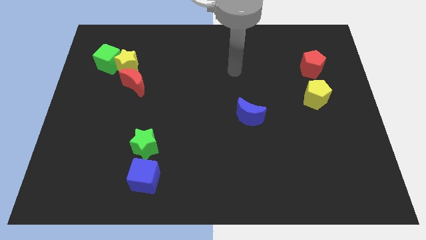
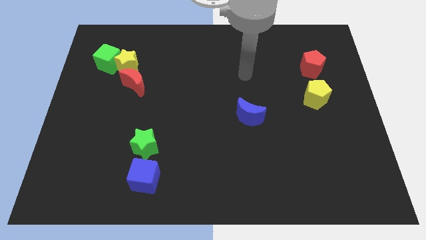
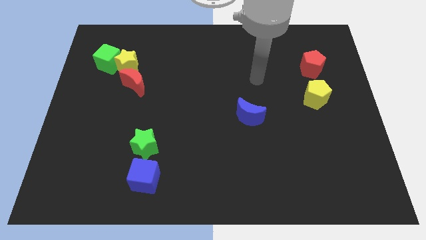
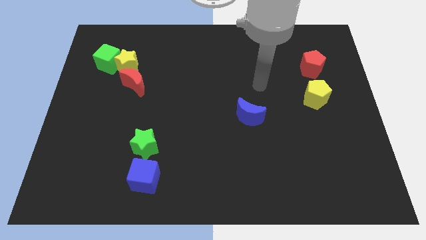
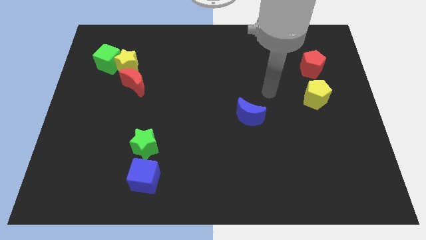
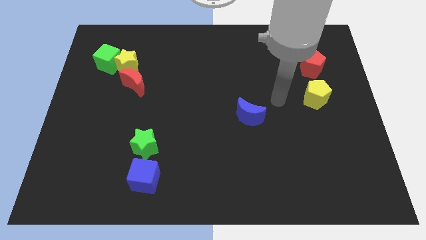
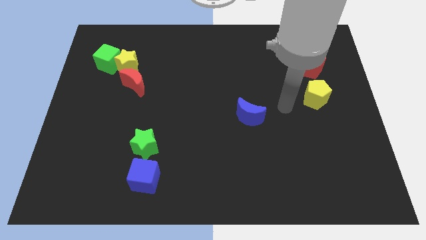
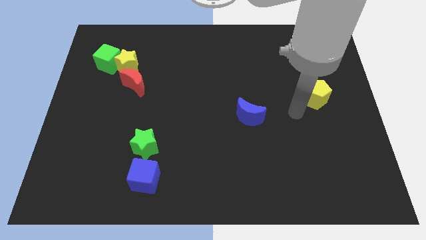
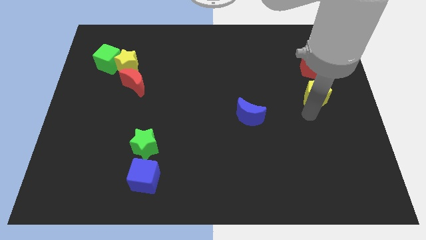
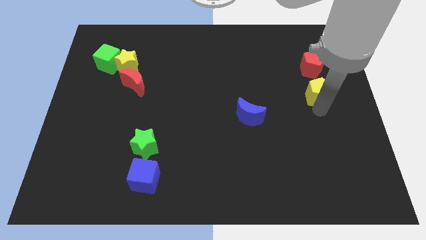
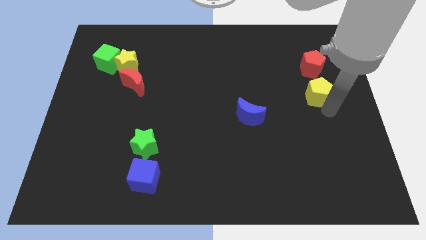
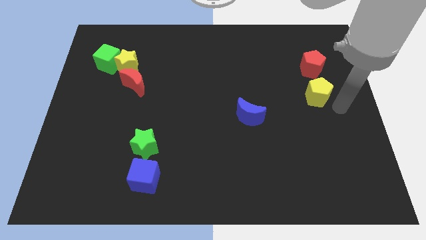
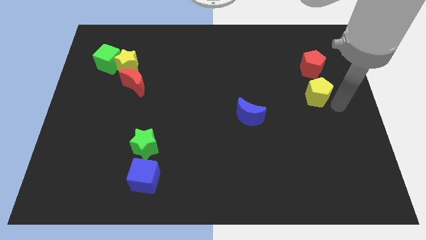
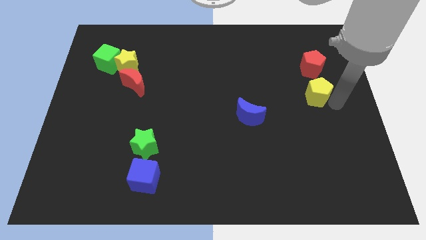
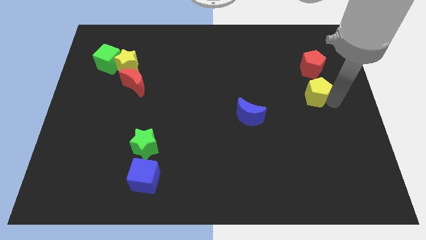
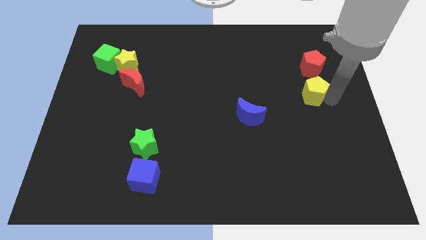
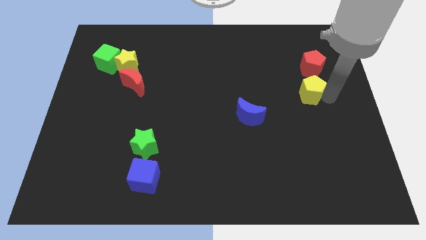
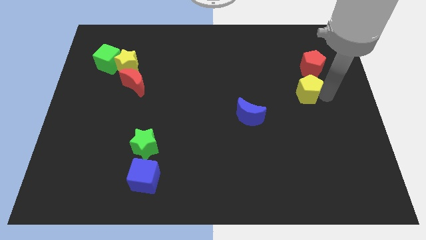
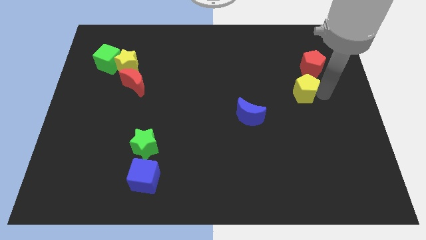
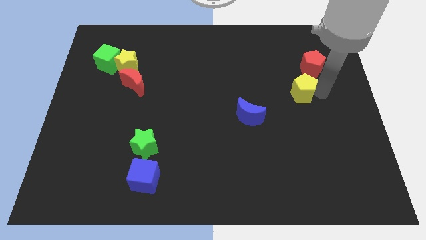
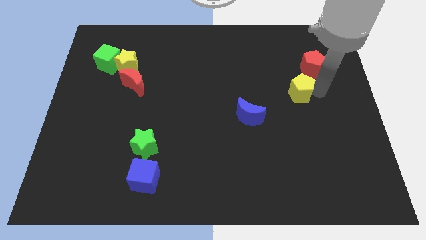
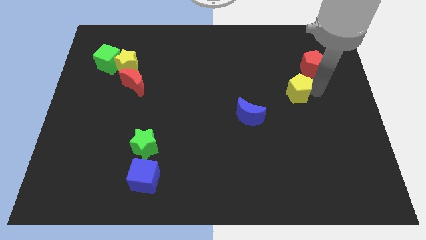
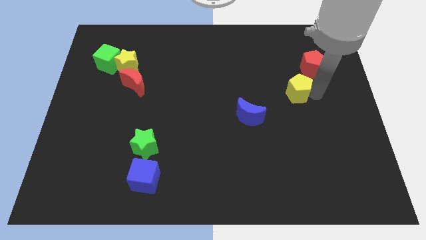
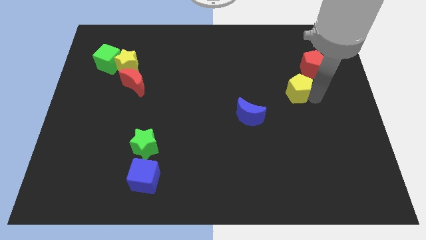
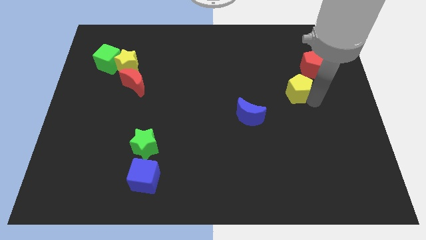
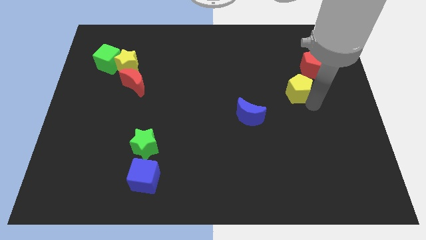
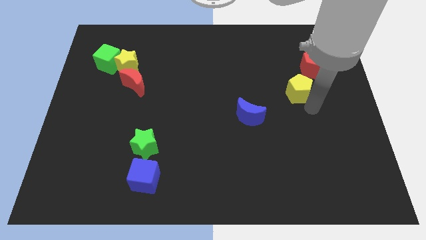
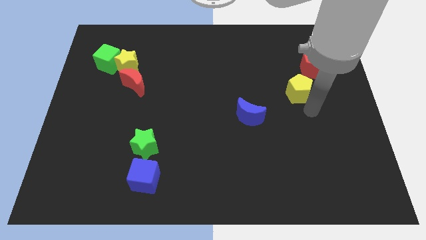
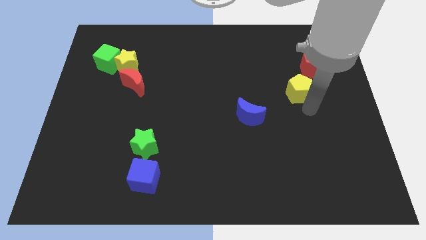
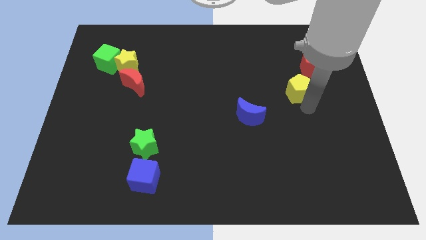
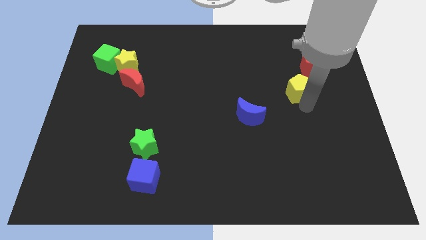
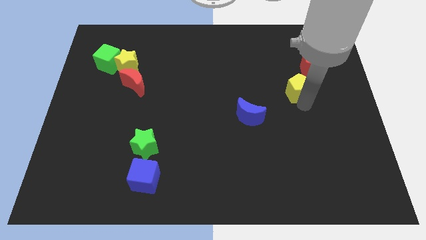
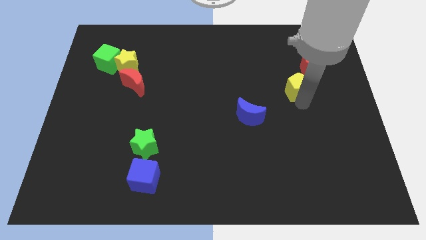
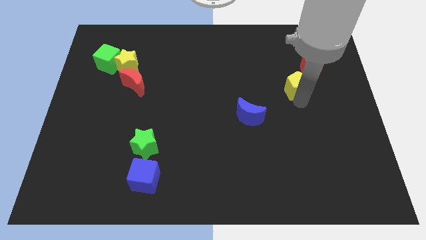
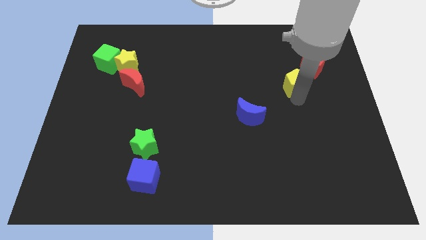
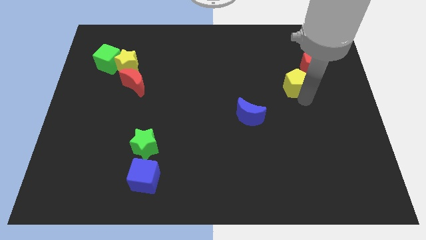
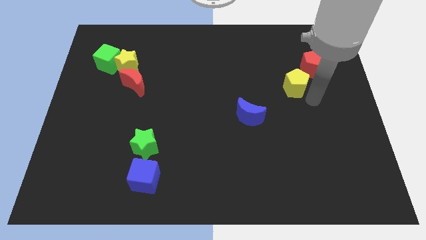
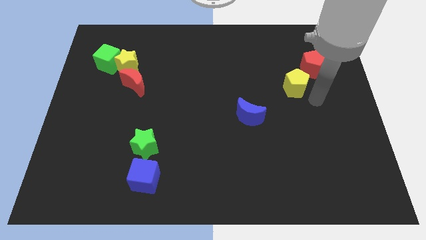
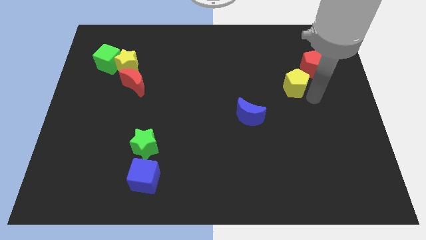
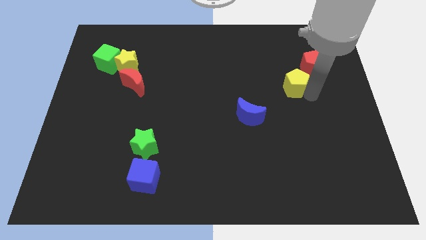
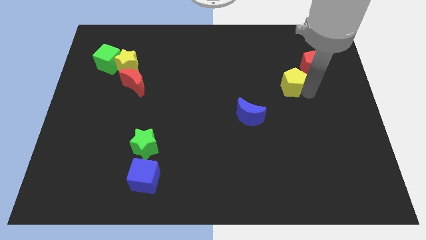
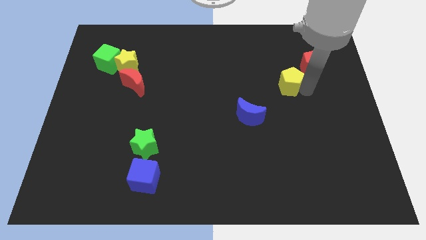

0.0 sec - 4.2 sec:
slightly move the yellow pentagon upwards and to the left diagonally

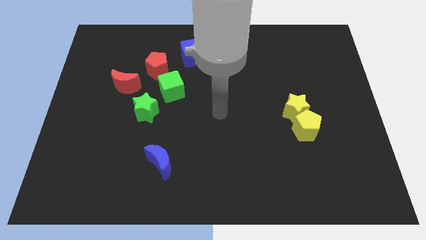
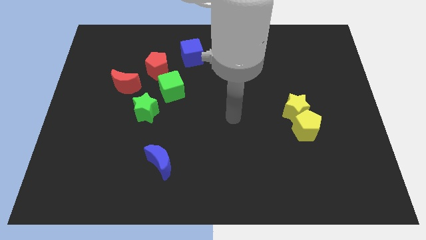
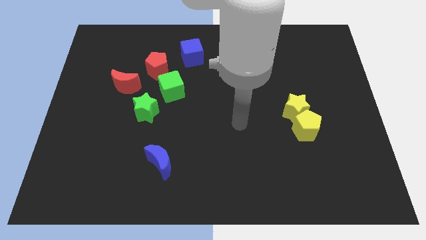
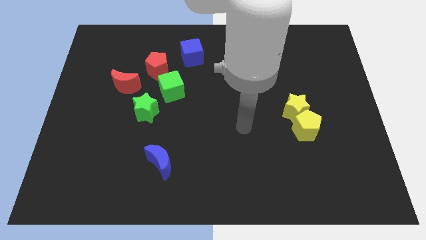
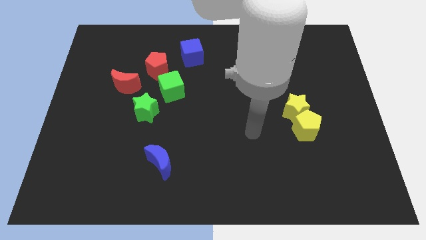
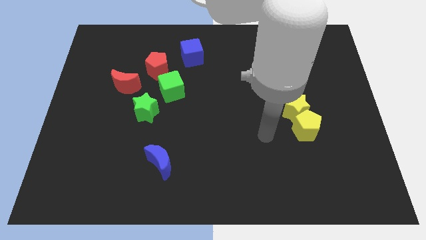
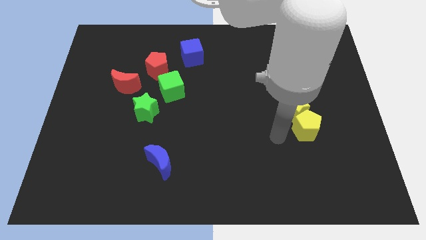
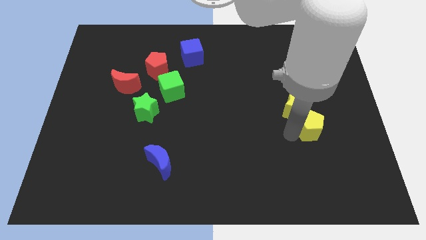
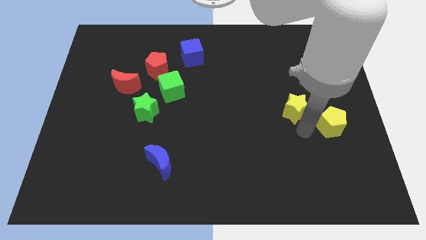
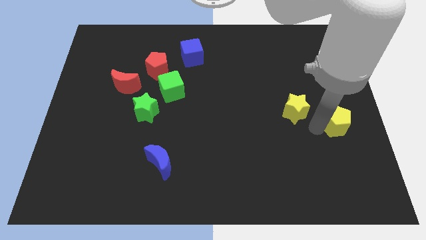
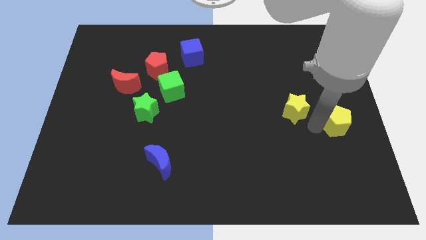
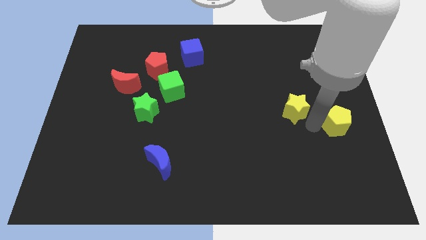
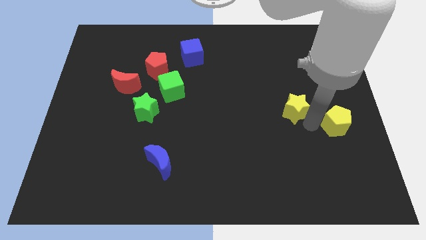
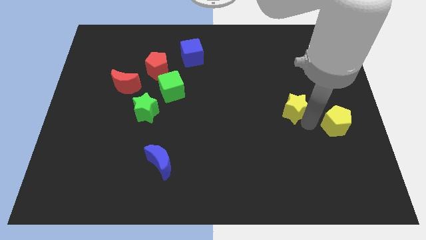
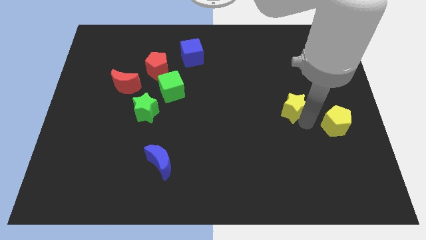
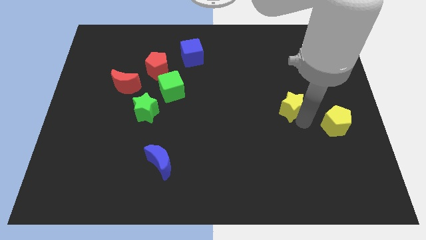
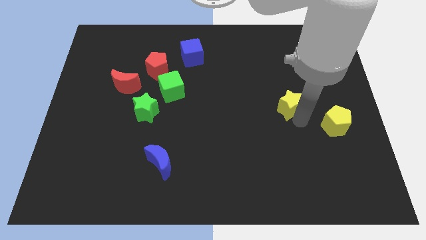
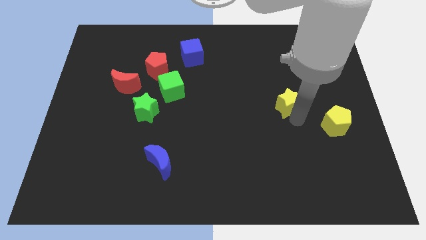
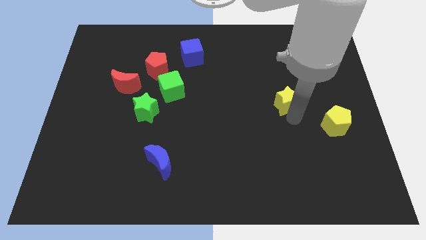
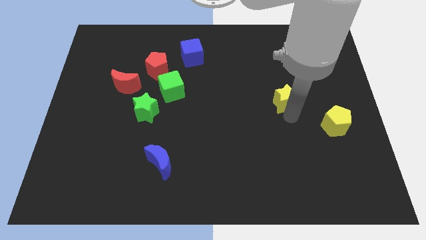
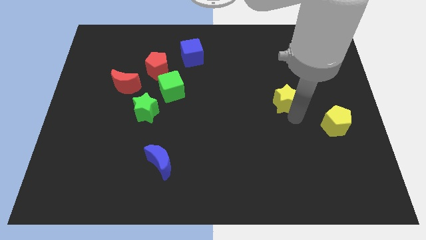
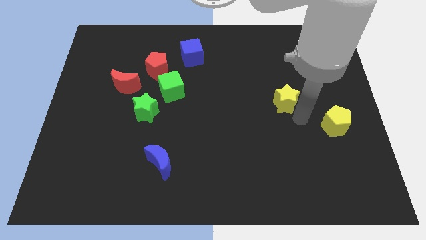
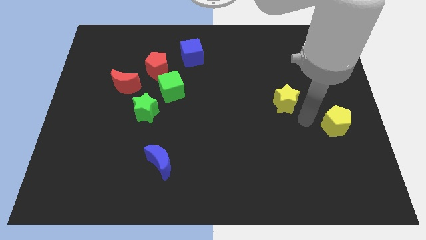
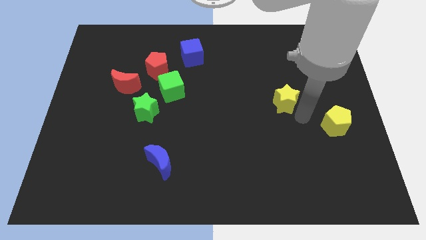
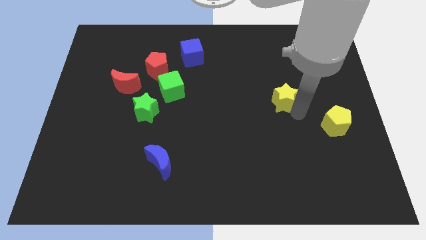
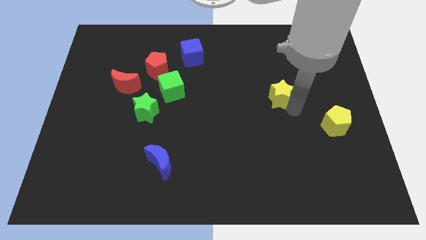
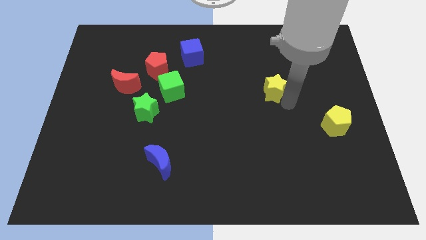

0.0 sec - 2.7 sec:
slide the yellow star slightly up and to the left

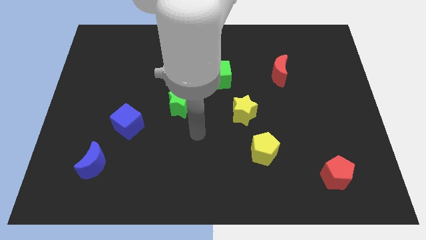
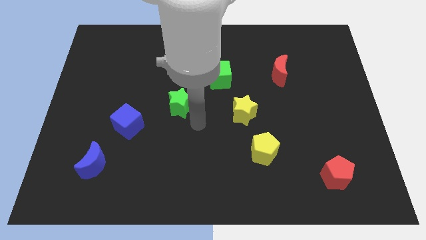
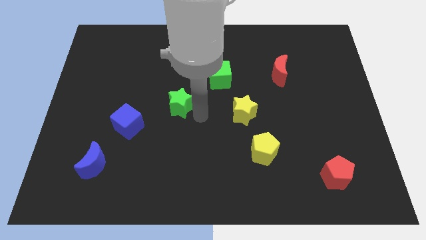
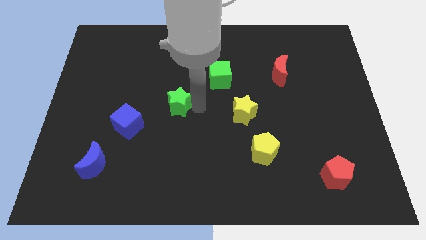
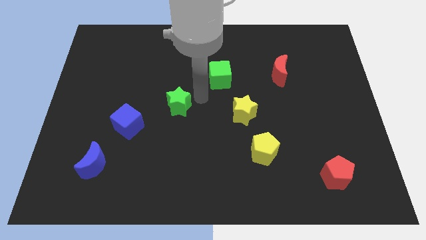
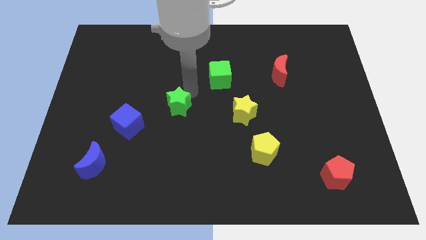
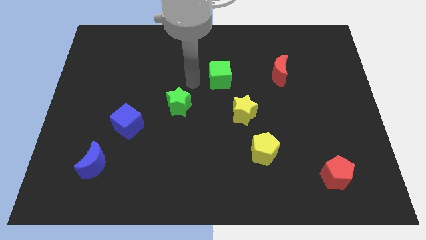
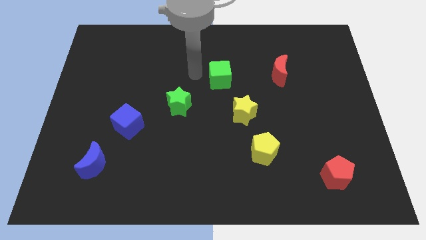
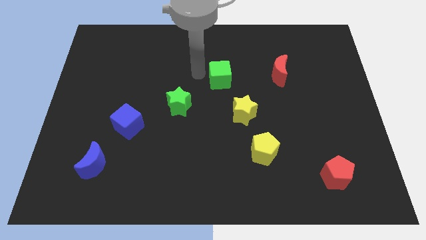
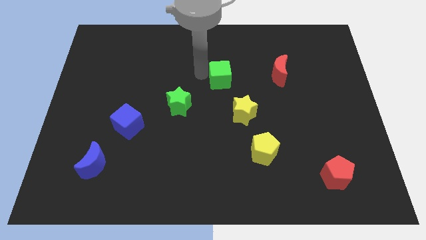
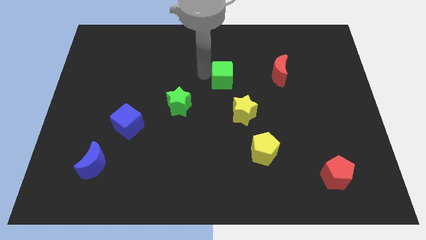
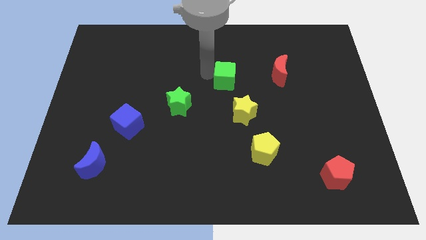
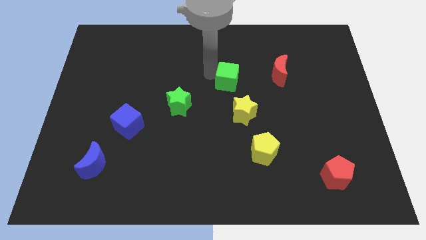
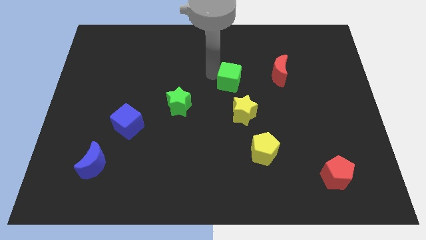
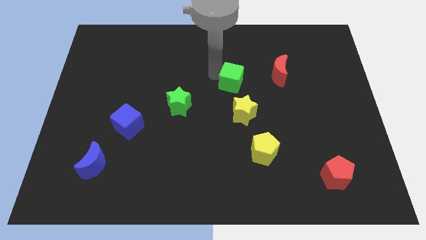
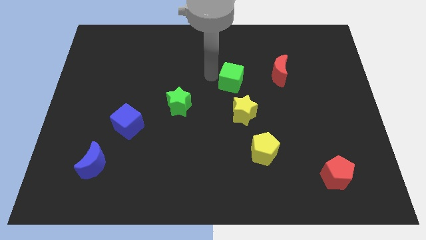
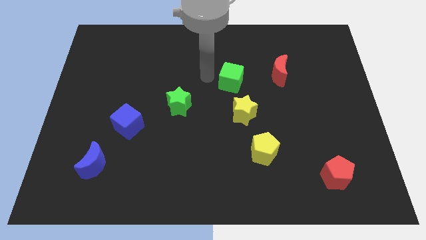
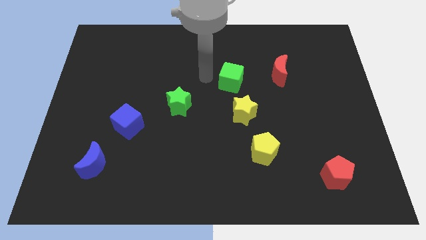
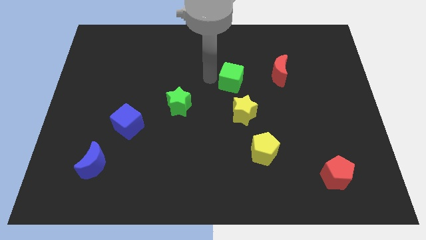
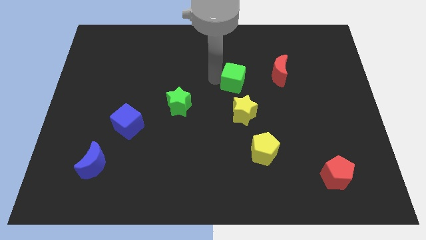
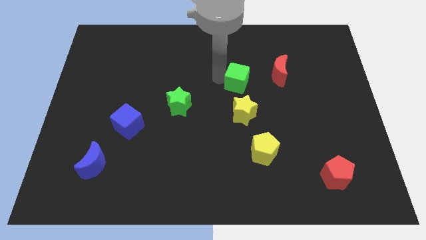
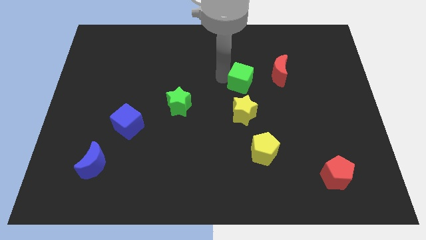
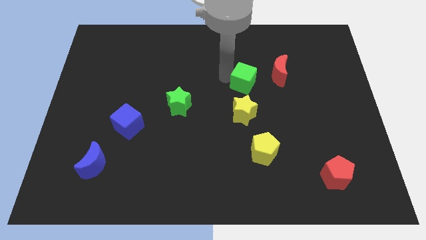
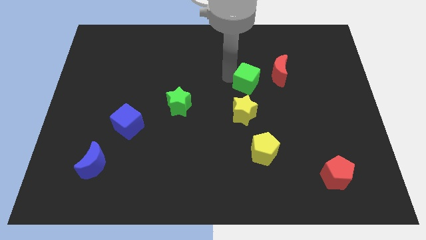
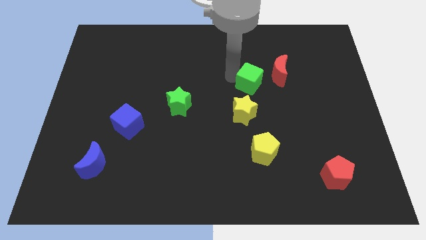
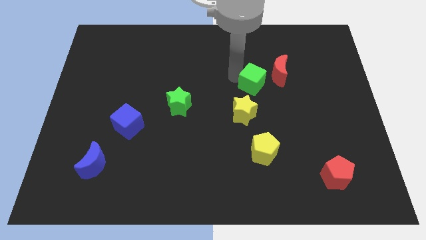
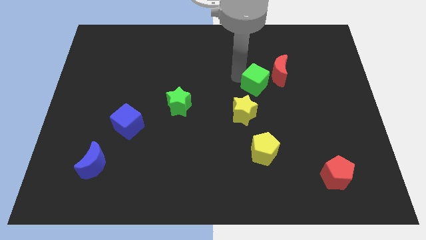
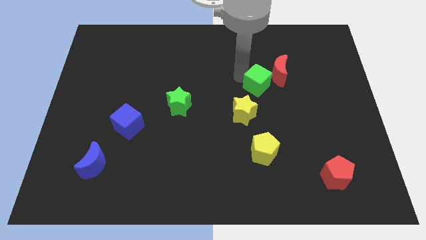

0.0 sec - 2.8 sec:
slide the green cube downwards and right a little bit
